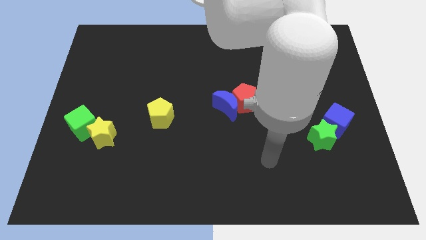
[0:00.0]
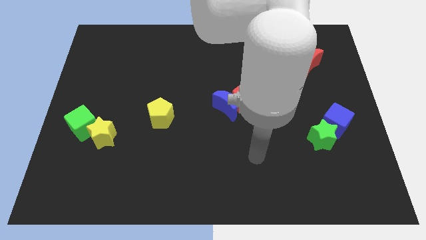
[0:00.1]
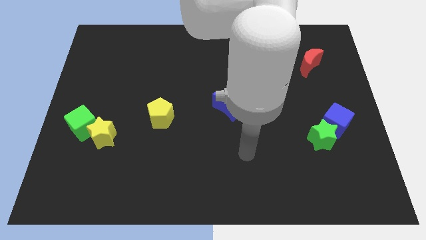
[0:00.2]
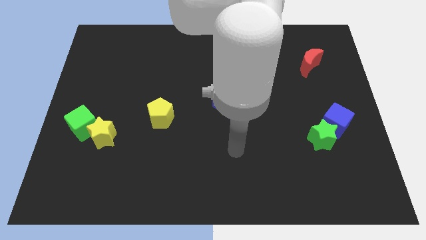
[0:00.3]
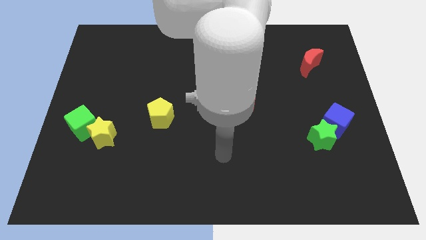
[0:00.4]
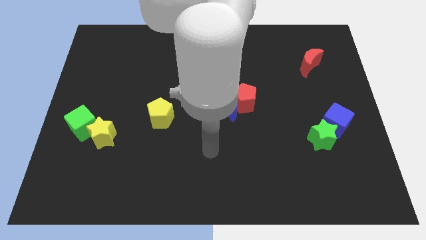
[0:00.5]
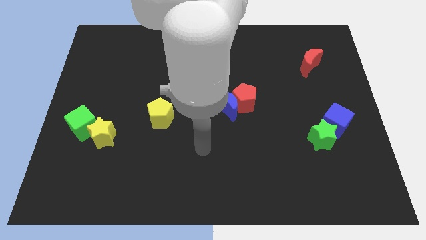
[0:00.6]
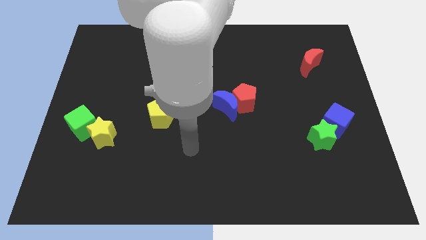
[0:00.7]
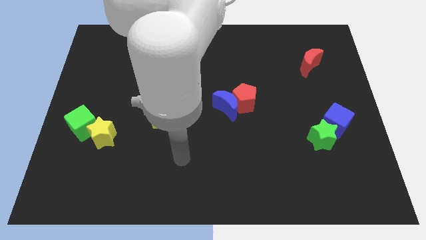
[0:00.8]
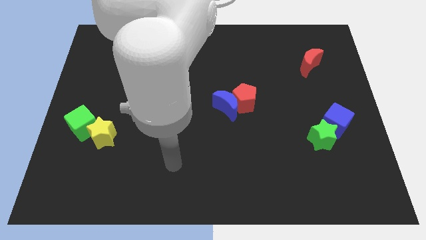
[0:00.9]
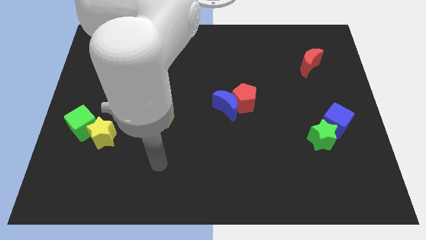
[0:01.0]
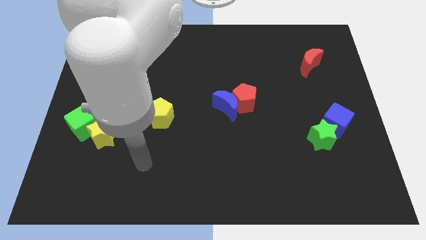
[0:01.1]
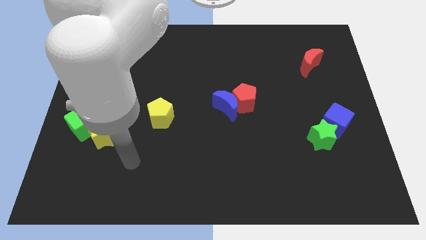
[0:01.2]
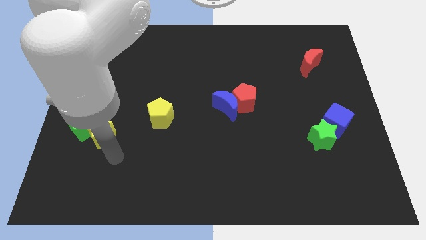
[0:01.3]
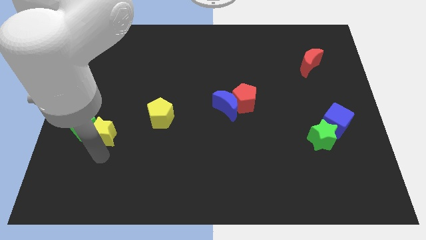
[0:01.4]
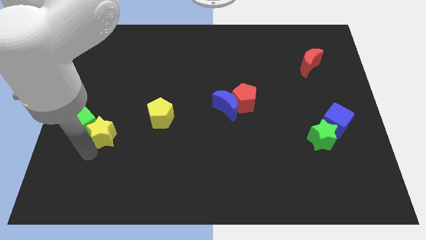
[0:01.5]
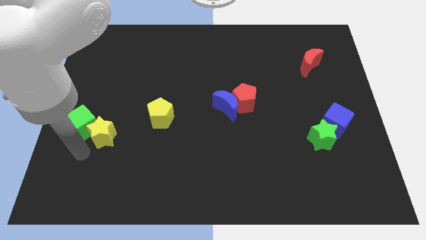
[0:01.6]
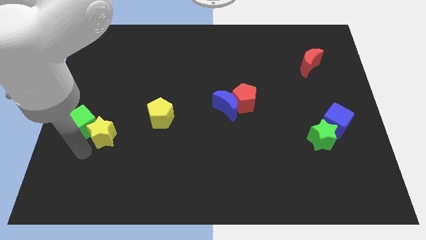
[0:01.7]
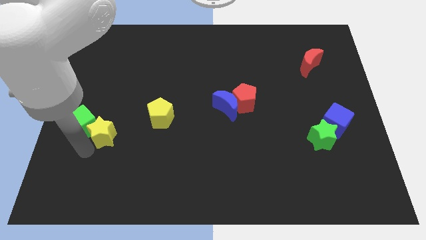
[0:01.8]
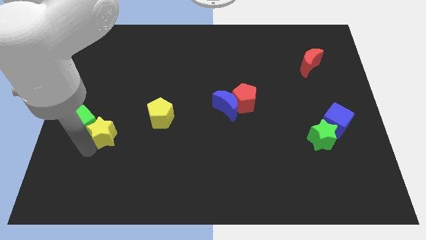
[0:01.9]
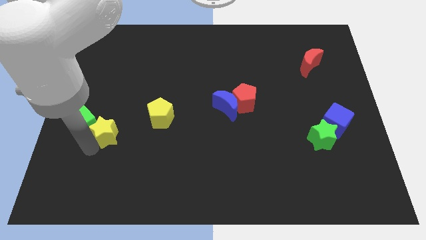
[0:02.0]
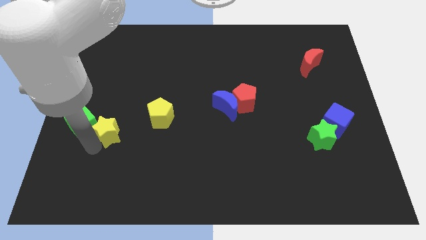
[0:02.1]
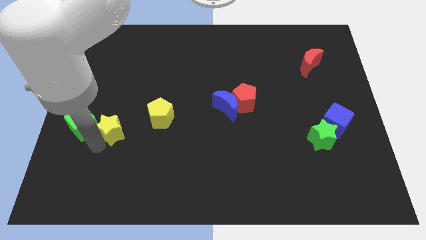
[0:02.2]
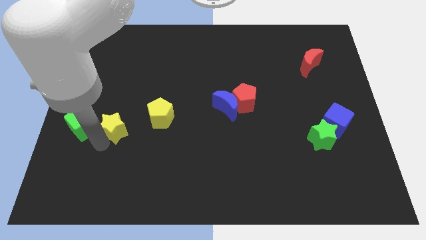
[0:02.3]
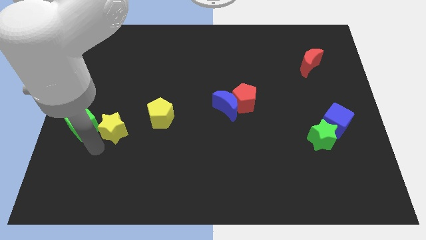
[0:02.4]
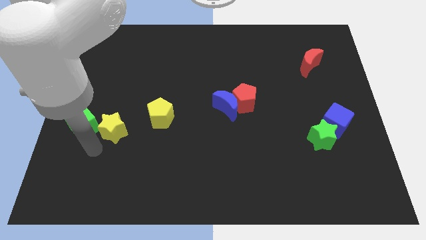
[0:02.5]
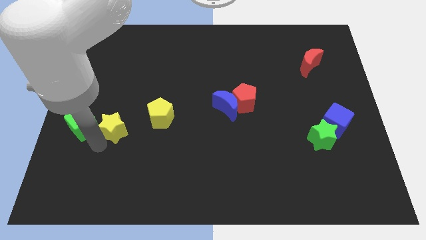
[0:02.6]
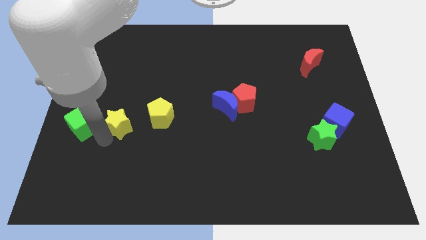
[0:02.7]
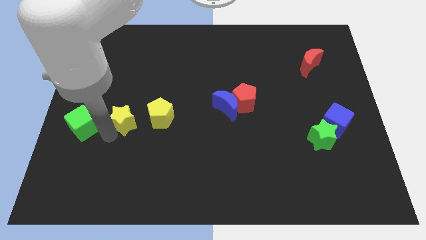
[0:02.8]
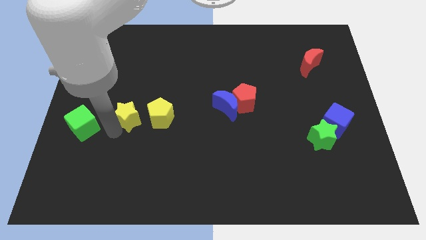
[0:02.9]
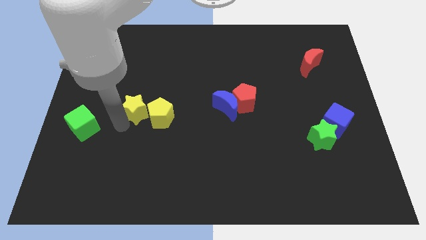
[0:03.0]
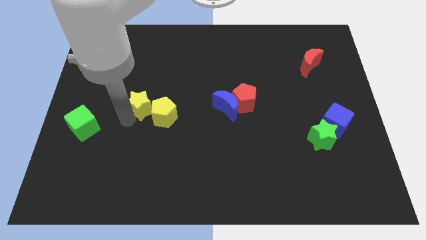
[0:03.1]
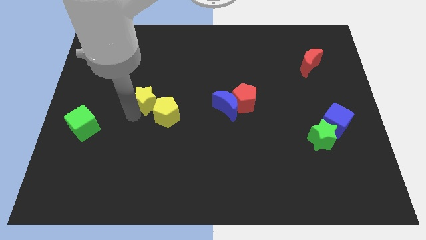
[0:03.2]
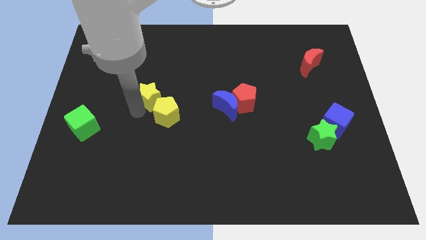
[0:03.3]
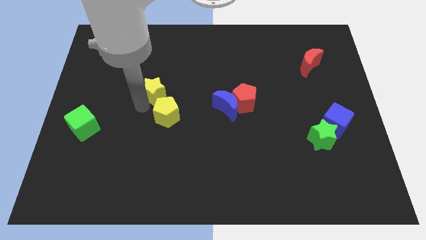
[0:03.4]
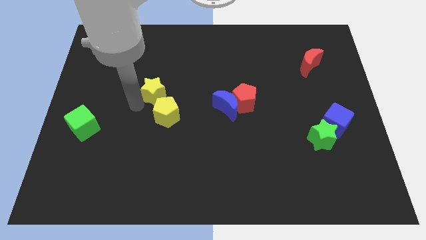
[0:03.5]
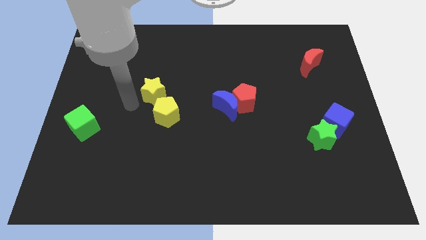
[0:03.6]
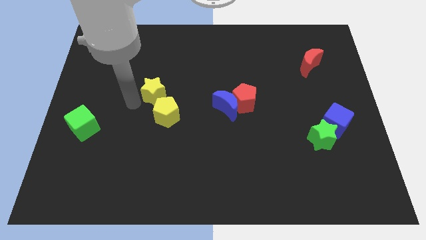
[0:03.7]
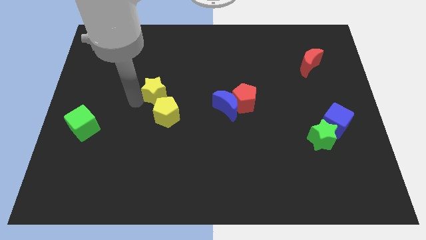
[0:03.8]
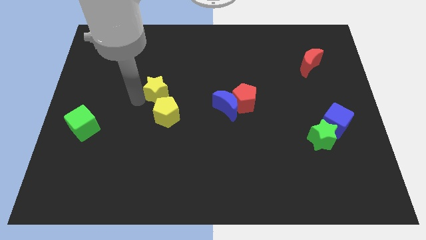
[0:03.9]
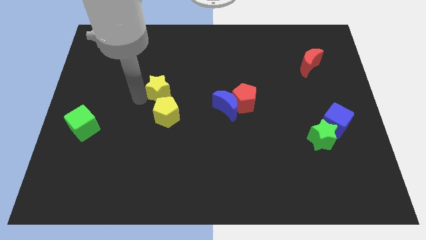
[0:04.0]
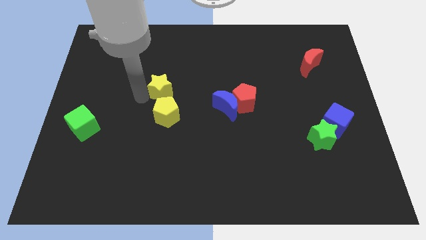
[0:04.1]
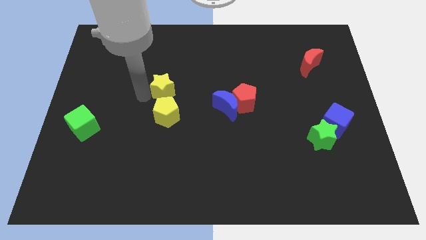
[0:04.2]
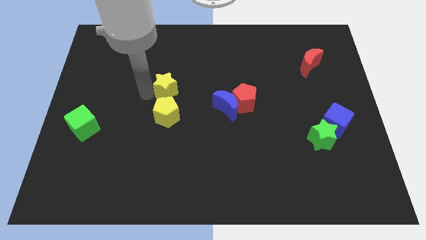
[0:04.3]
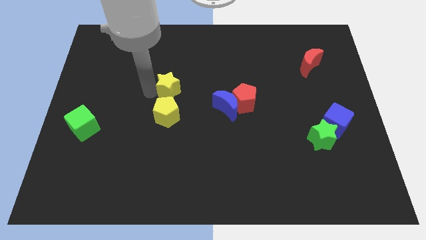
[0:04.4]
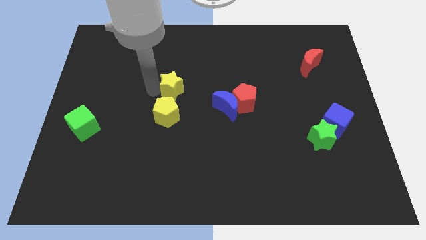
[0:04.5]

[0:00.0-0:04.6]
slide the yellow star diagonally up and right

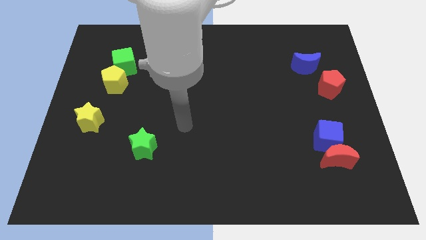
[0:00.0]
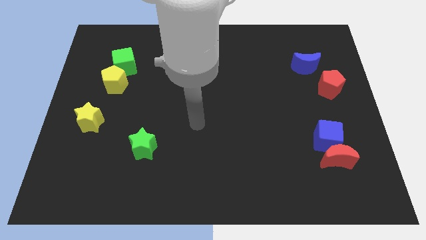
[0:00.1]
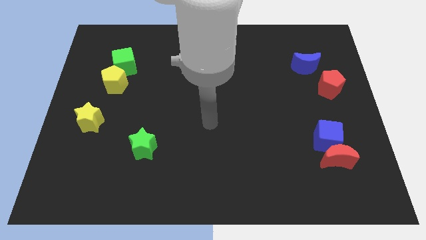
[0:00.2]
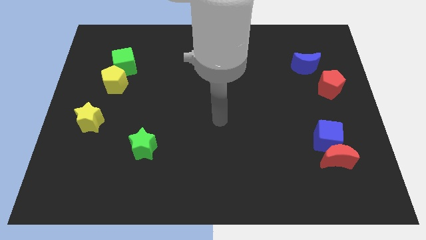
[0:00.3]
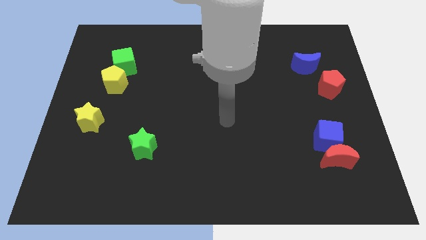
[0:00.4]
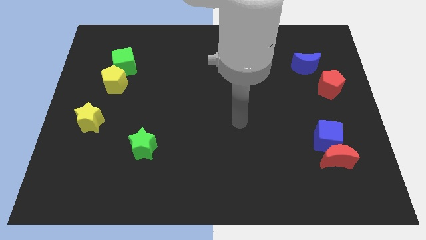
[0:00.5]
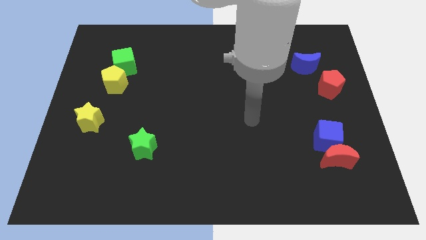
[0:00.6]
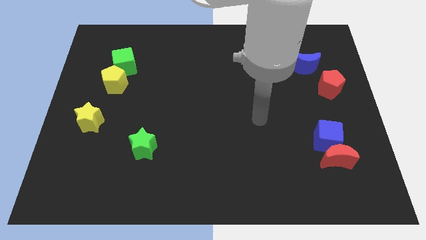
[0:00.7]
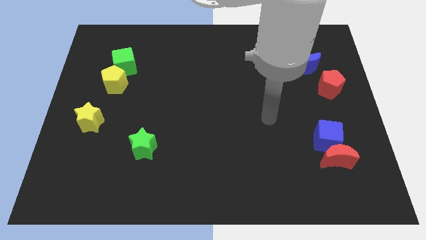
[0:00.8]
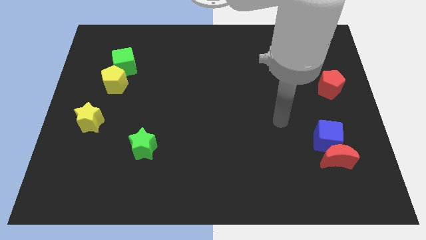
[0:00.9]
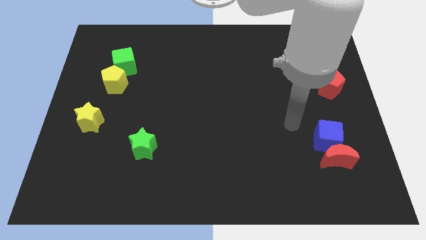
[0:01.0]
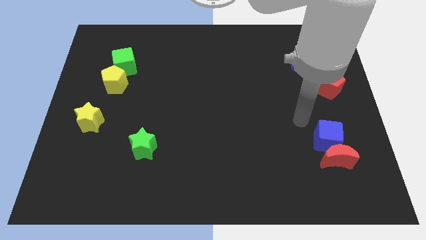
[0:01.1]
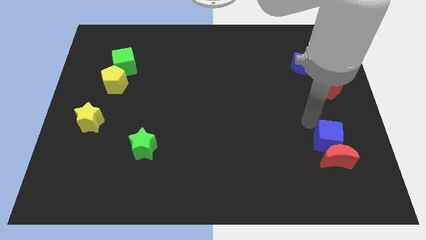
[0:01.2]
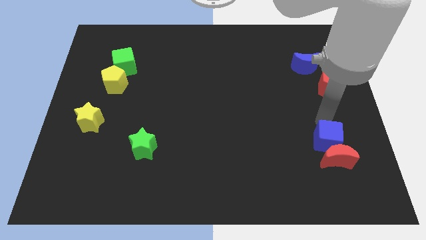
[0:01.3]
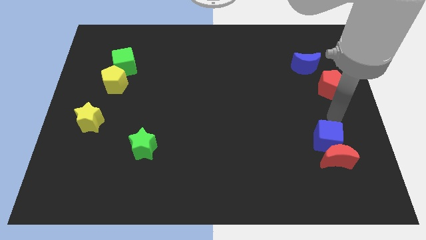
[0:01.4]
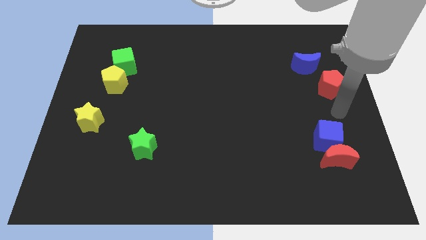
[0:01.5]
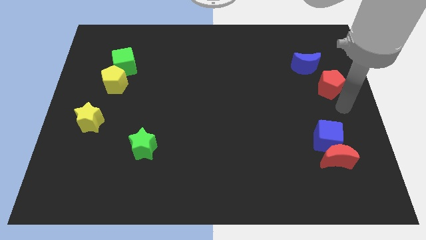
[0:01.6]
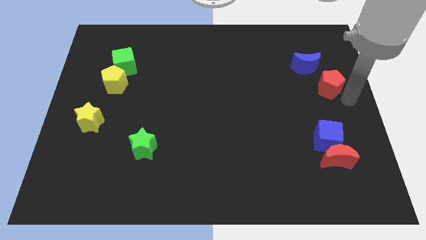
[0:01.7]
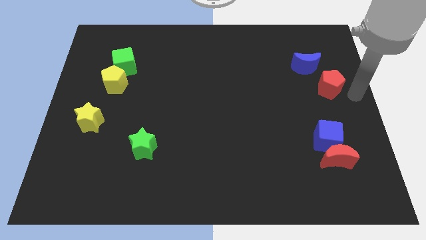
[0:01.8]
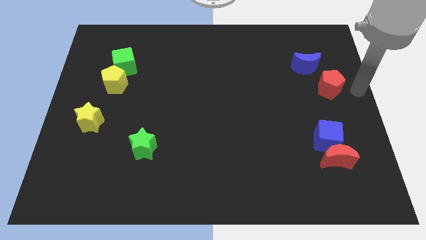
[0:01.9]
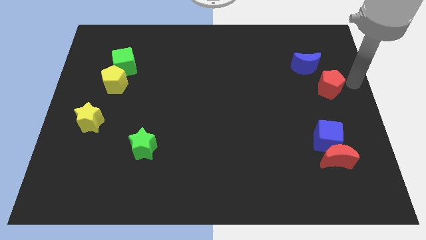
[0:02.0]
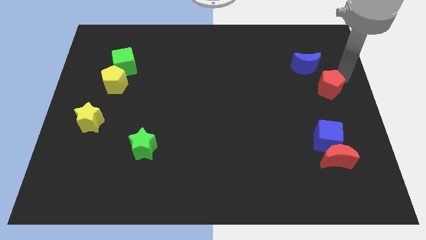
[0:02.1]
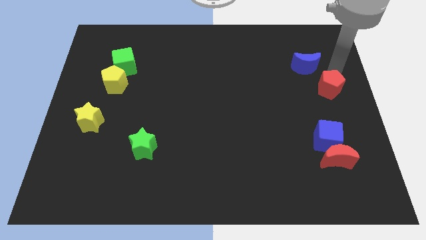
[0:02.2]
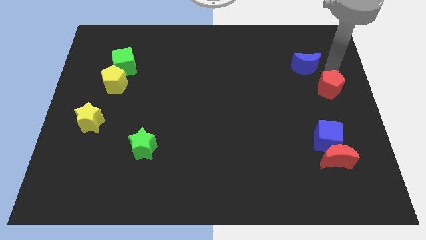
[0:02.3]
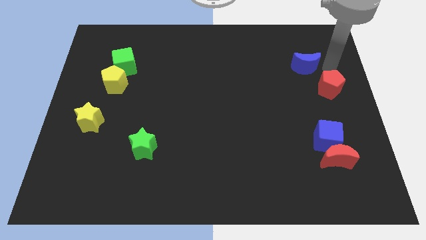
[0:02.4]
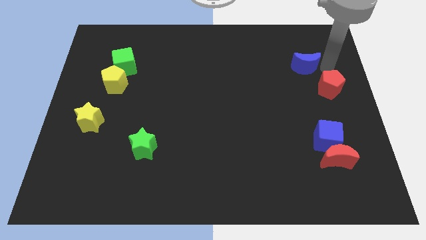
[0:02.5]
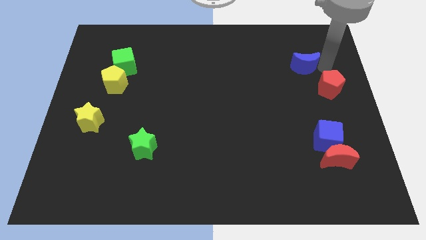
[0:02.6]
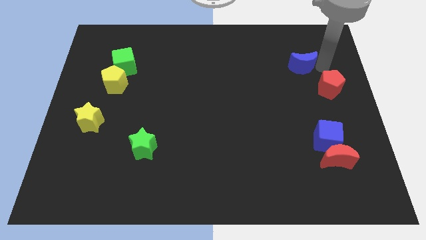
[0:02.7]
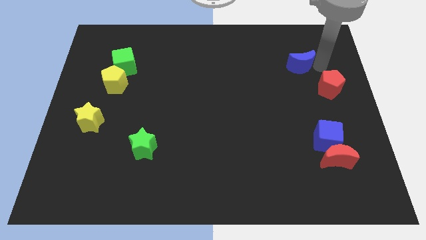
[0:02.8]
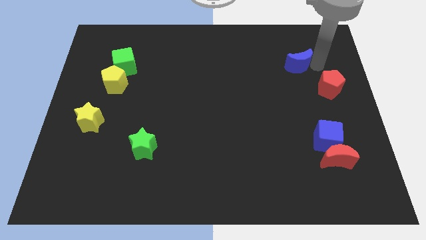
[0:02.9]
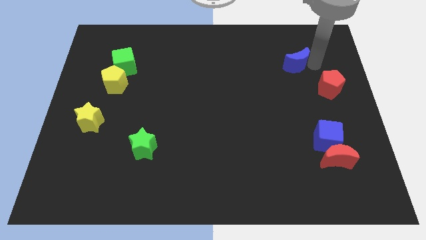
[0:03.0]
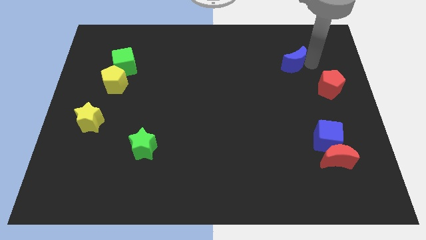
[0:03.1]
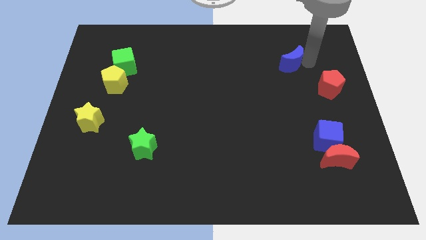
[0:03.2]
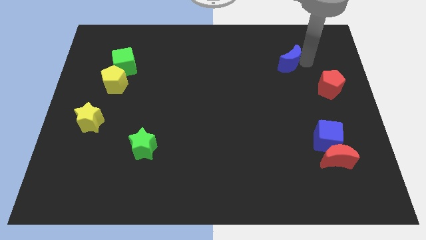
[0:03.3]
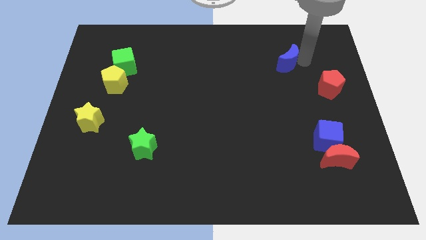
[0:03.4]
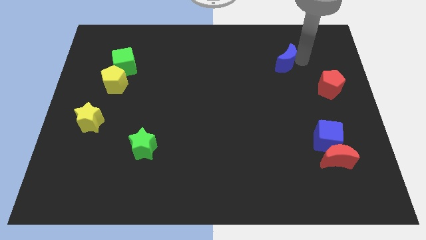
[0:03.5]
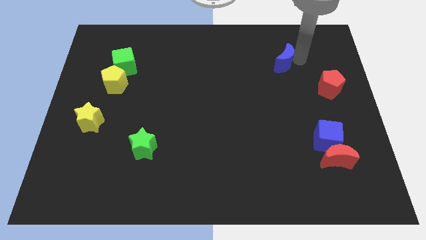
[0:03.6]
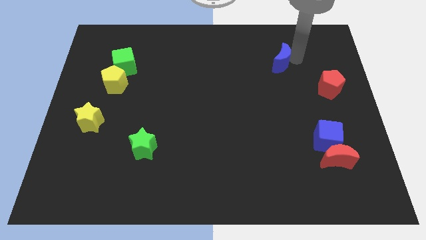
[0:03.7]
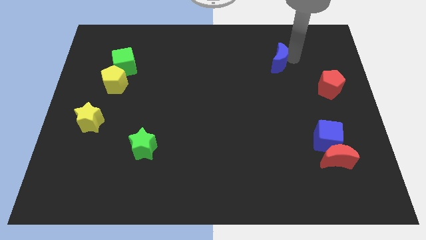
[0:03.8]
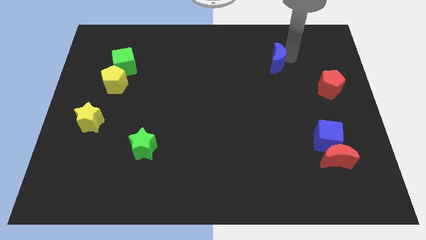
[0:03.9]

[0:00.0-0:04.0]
slightly slide the blue moon to the left
